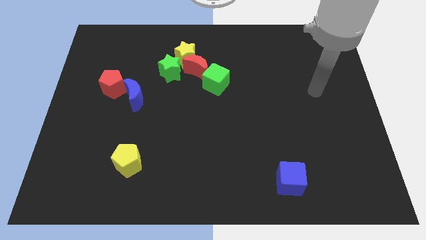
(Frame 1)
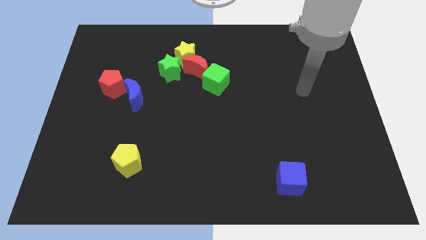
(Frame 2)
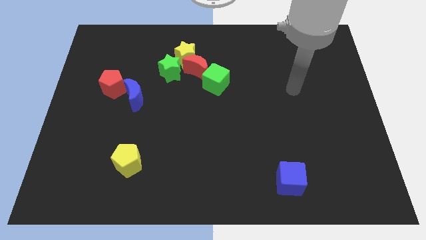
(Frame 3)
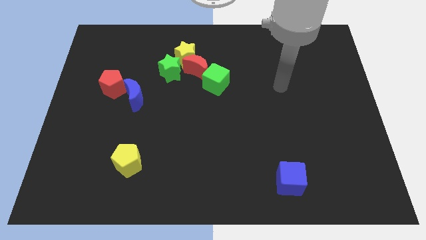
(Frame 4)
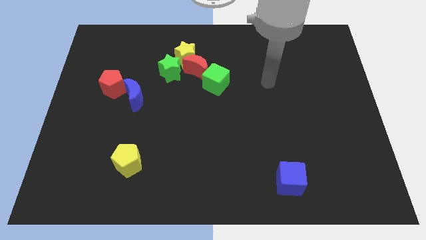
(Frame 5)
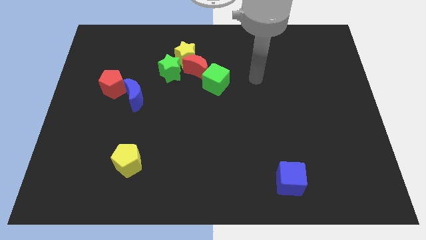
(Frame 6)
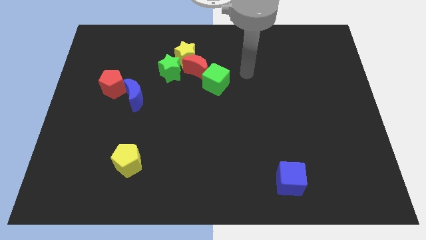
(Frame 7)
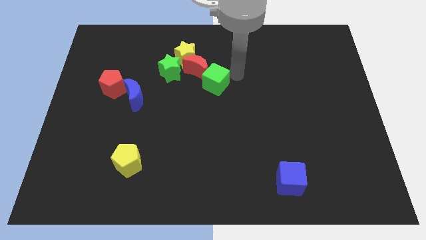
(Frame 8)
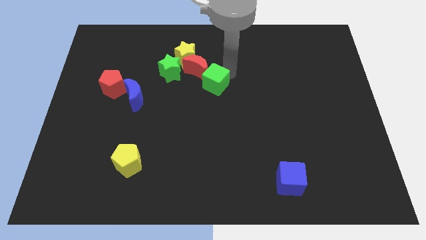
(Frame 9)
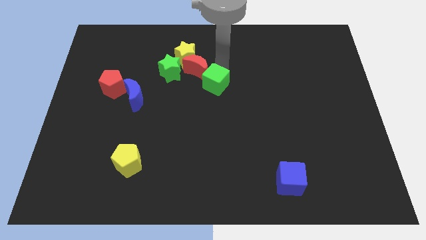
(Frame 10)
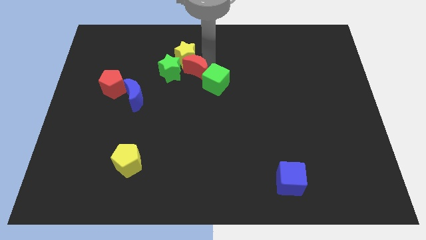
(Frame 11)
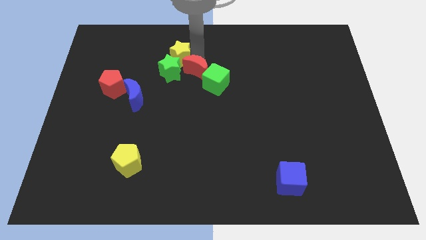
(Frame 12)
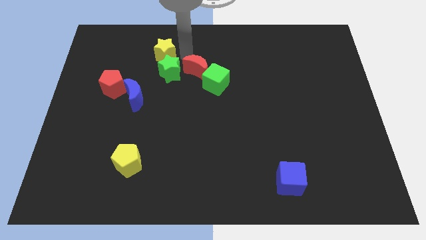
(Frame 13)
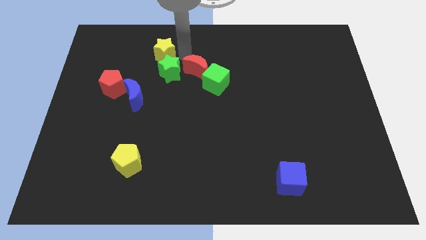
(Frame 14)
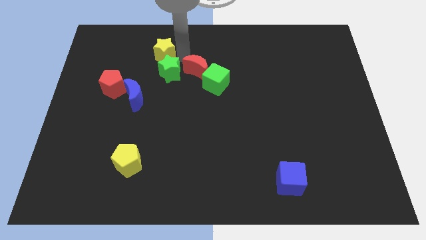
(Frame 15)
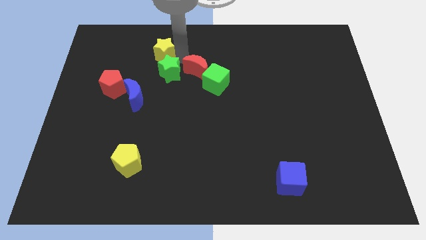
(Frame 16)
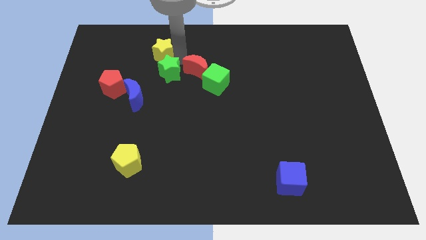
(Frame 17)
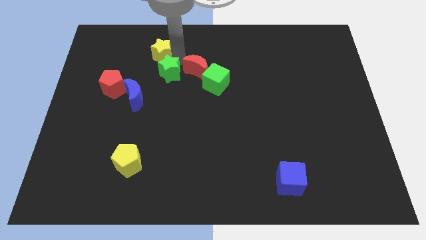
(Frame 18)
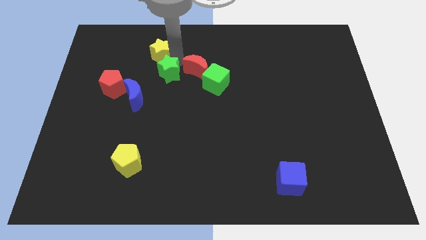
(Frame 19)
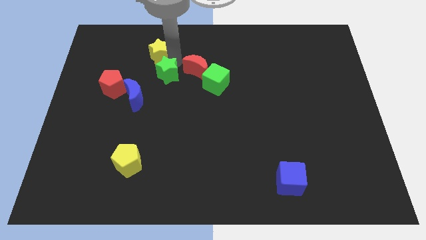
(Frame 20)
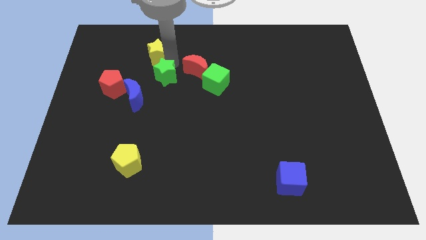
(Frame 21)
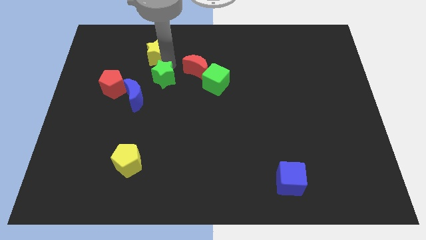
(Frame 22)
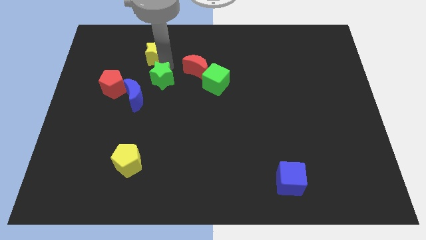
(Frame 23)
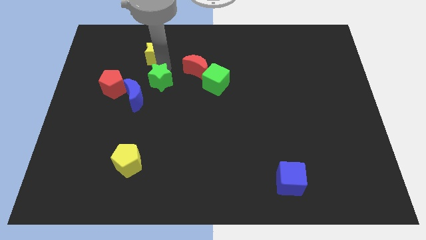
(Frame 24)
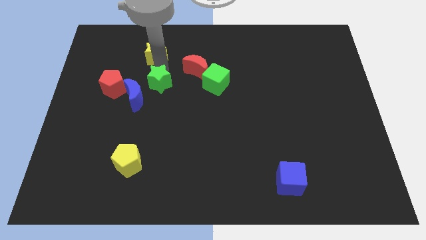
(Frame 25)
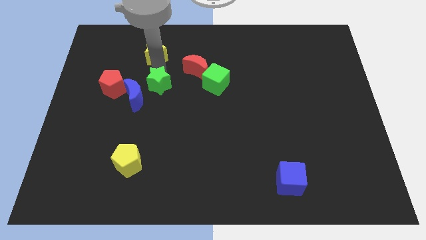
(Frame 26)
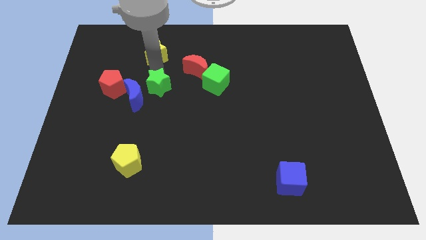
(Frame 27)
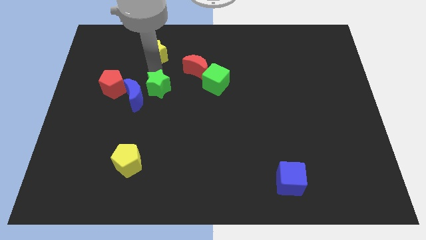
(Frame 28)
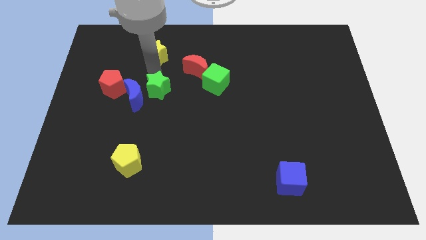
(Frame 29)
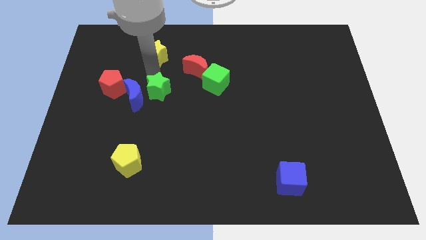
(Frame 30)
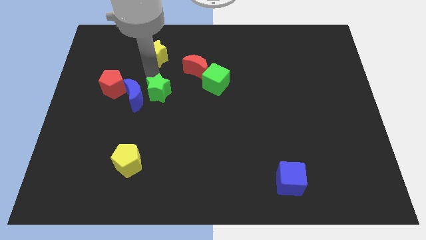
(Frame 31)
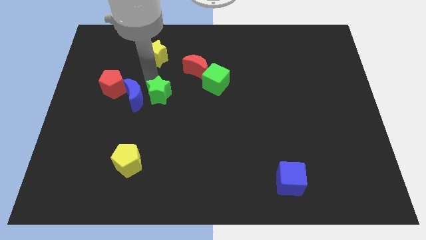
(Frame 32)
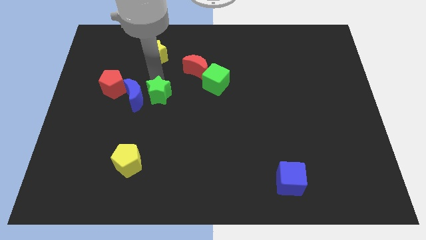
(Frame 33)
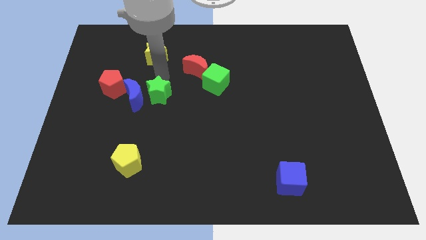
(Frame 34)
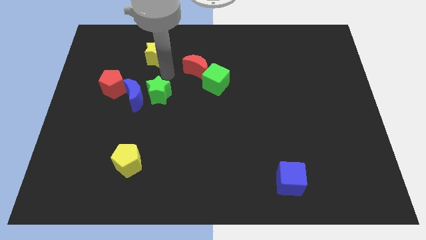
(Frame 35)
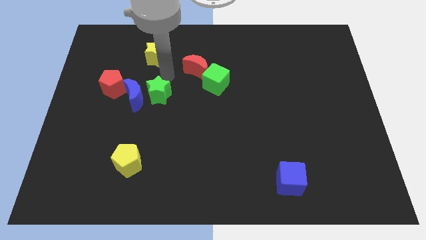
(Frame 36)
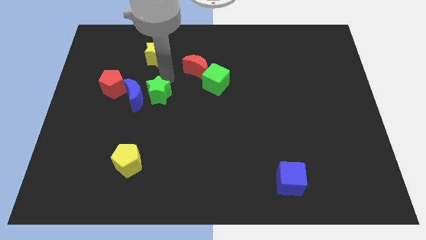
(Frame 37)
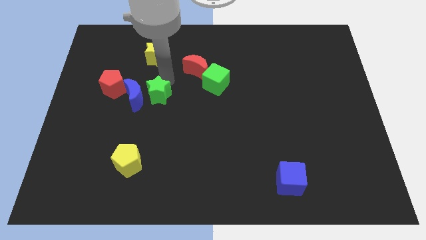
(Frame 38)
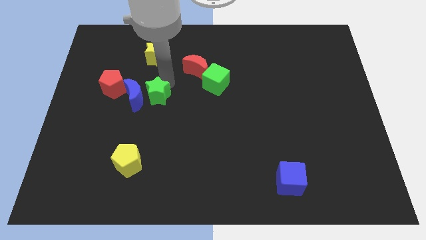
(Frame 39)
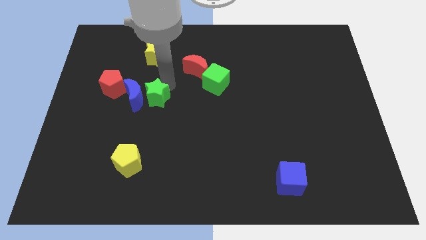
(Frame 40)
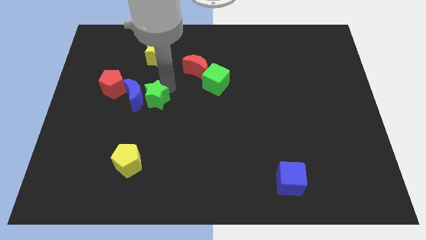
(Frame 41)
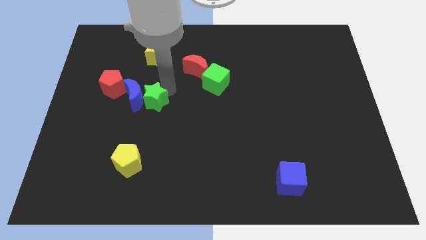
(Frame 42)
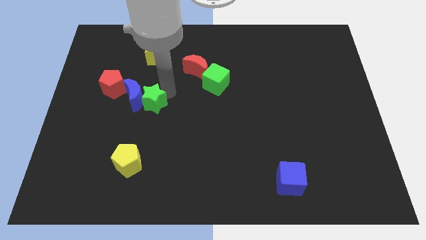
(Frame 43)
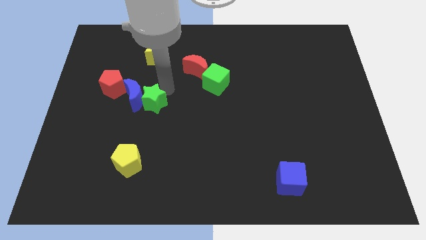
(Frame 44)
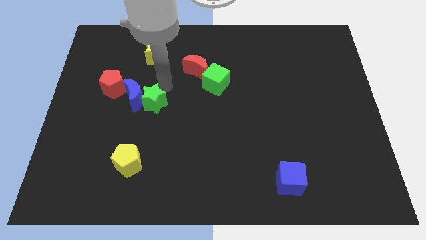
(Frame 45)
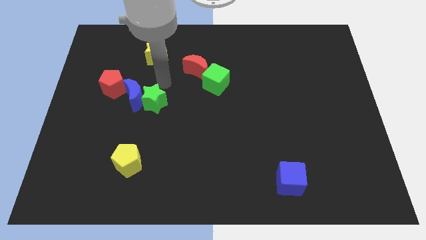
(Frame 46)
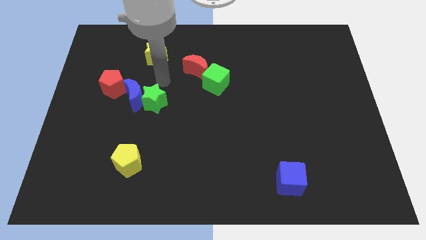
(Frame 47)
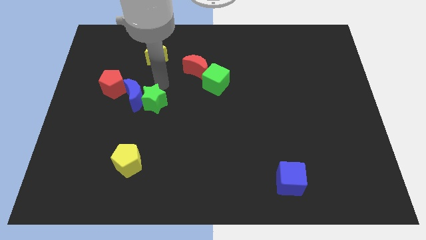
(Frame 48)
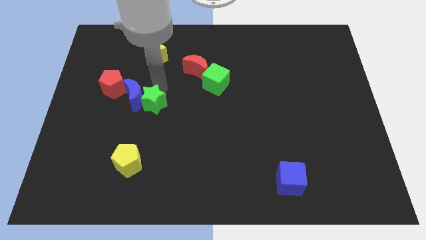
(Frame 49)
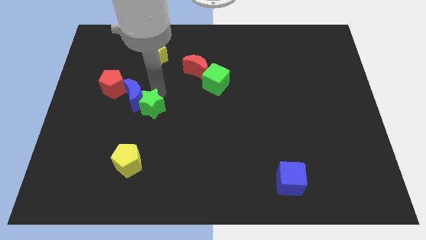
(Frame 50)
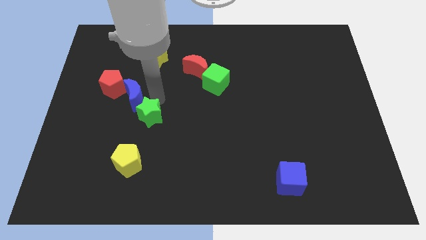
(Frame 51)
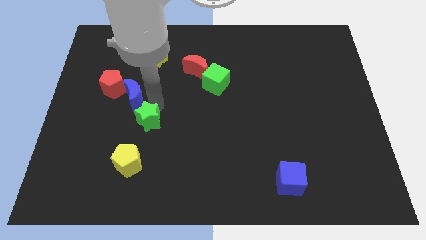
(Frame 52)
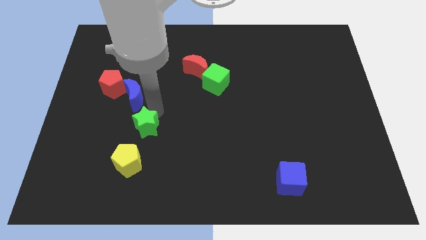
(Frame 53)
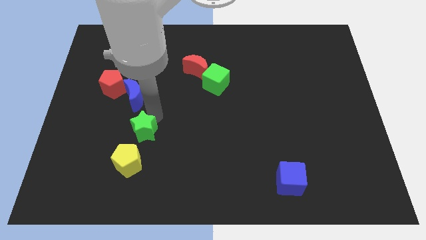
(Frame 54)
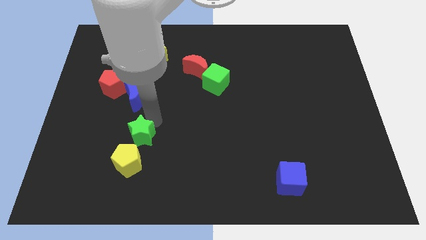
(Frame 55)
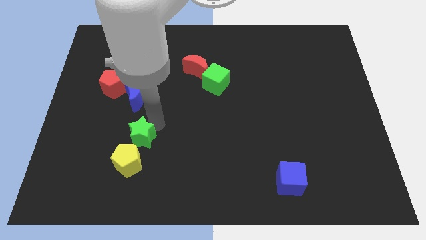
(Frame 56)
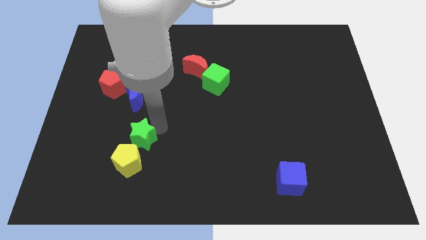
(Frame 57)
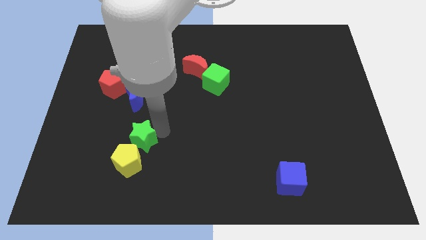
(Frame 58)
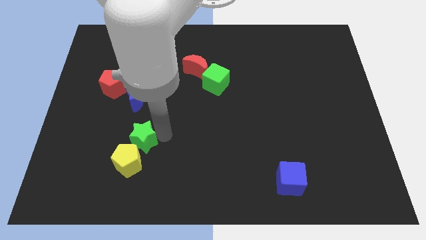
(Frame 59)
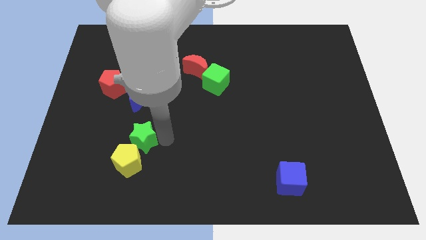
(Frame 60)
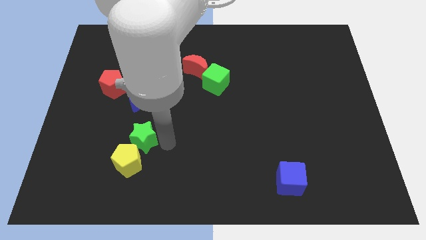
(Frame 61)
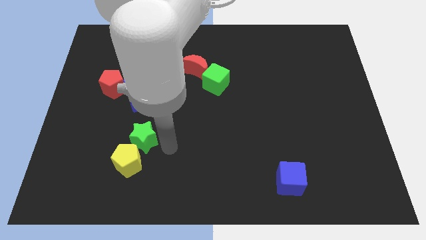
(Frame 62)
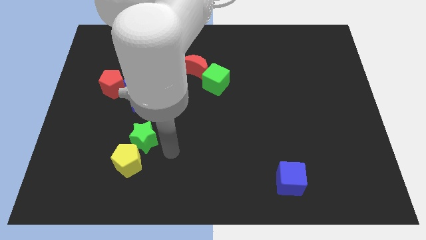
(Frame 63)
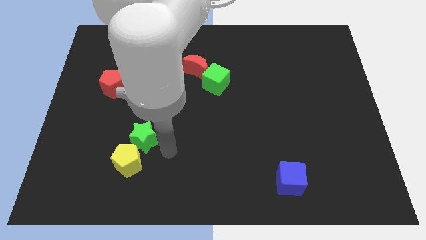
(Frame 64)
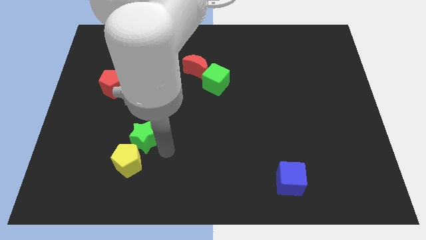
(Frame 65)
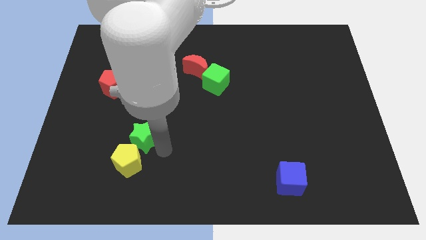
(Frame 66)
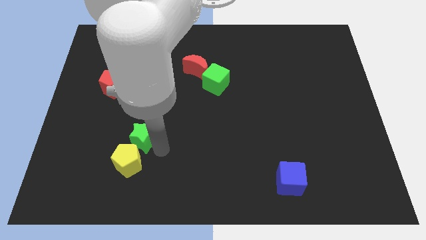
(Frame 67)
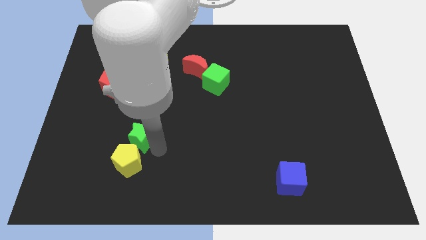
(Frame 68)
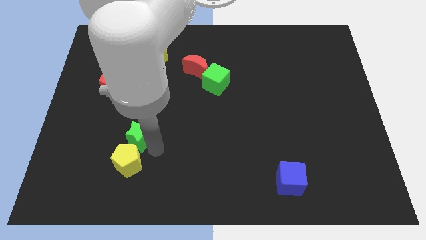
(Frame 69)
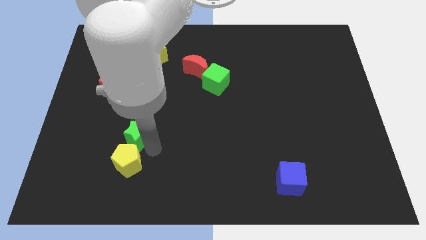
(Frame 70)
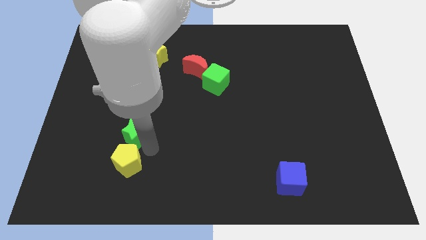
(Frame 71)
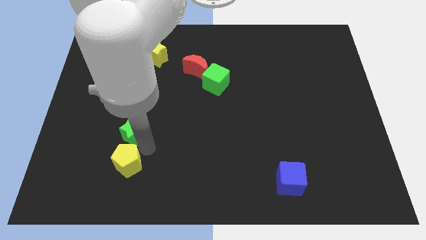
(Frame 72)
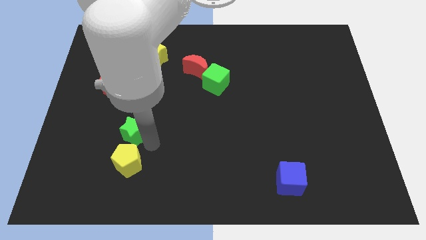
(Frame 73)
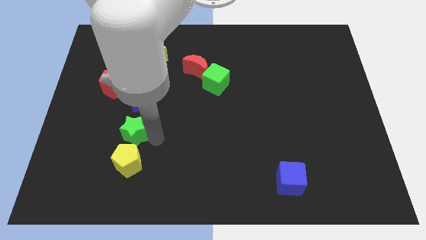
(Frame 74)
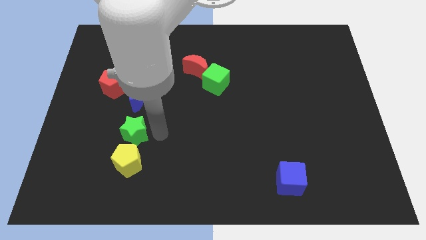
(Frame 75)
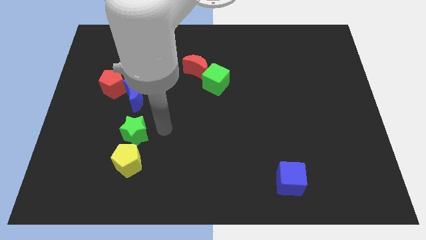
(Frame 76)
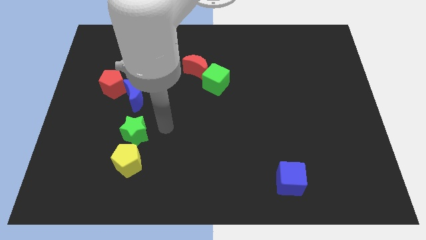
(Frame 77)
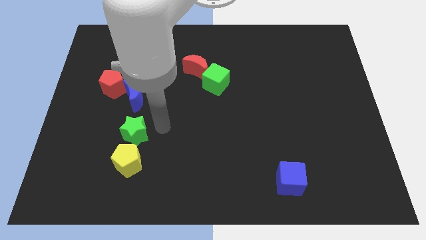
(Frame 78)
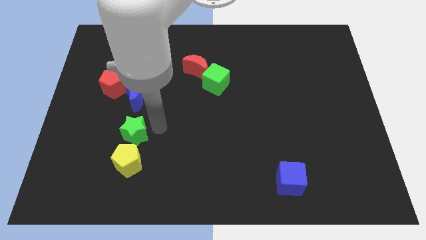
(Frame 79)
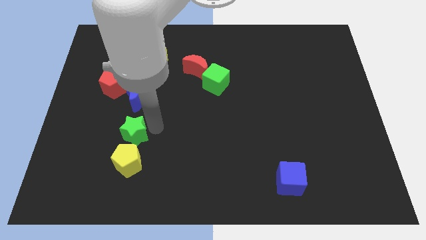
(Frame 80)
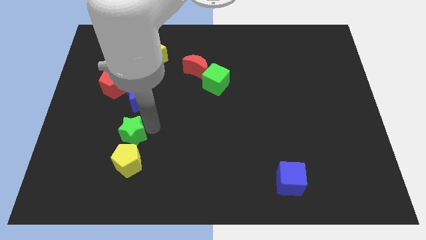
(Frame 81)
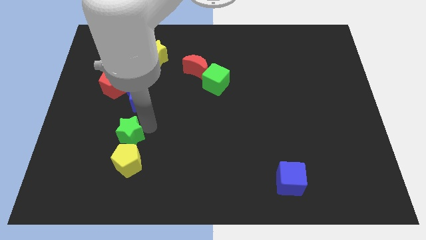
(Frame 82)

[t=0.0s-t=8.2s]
push the green star to the top left side of the yellow pentagon
